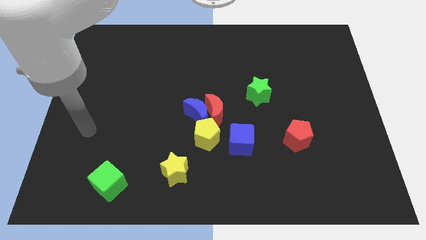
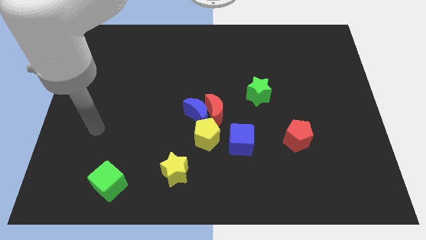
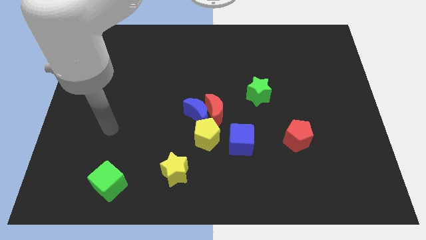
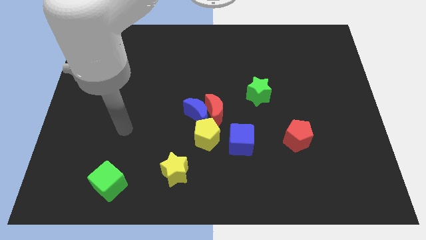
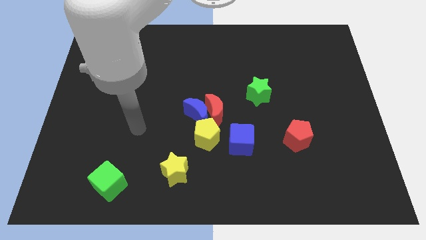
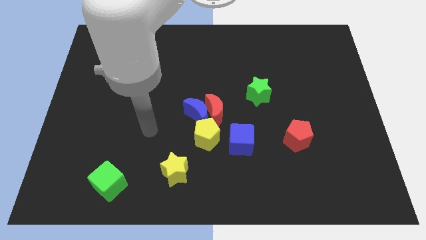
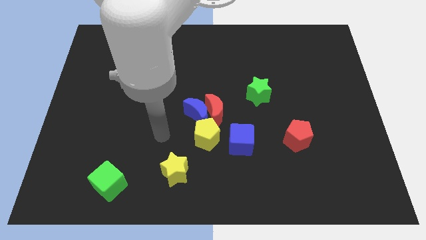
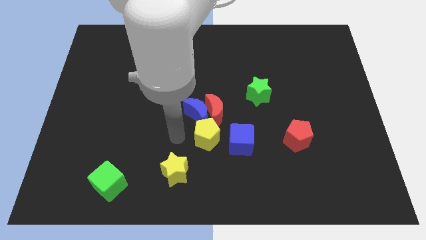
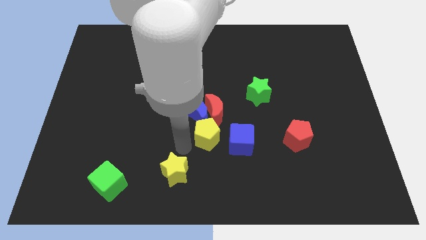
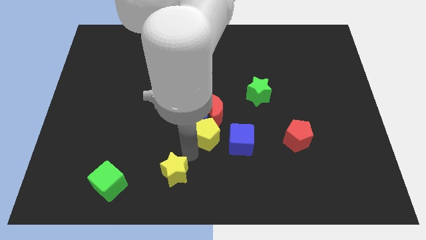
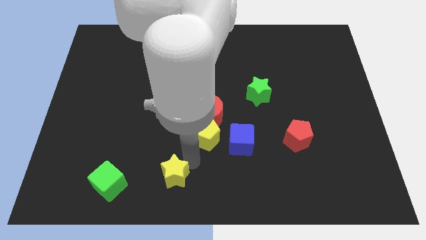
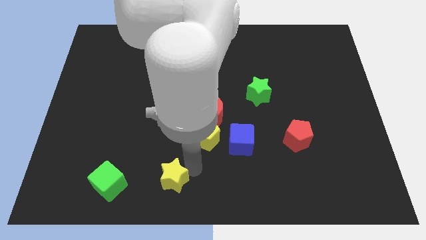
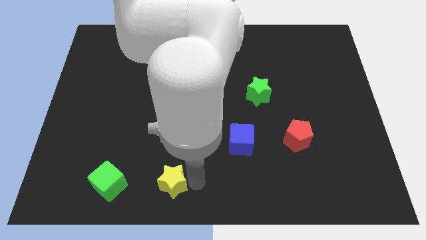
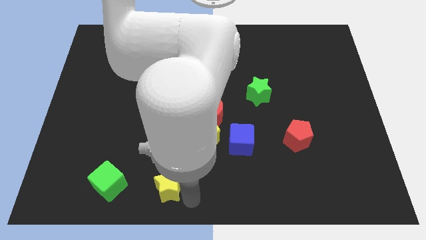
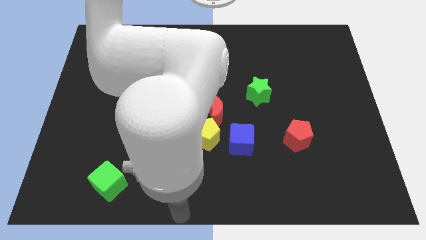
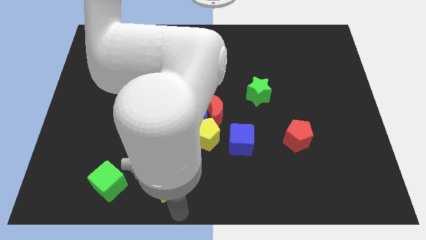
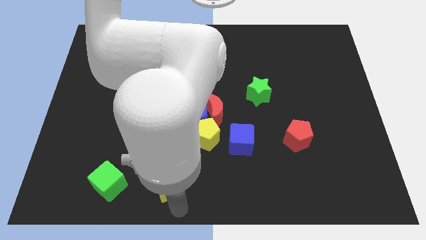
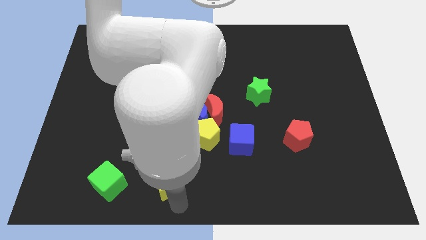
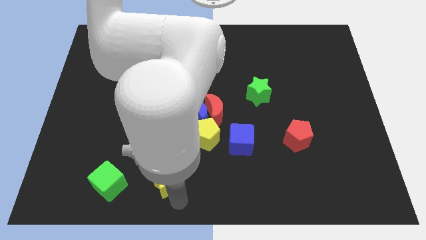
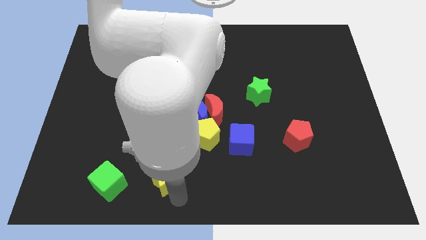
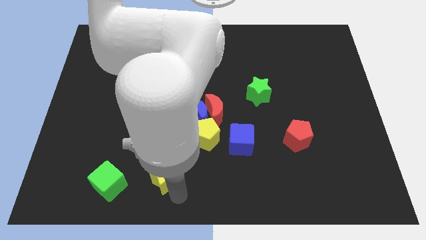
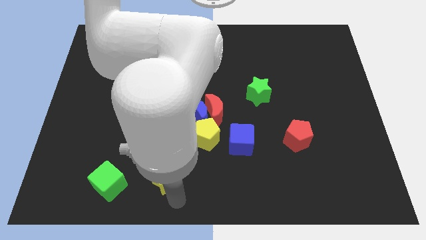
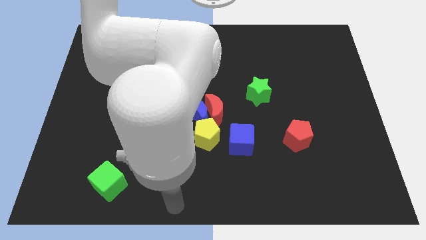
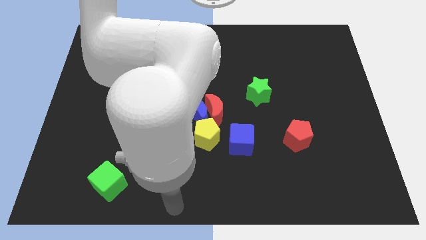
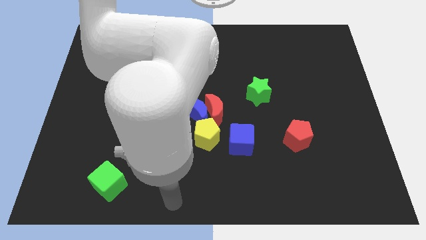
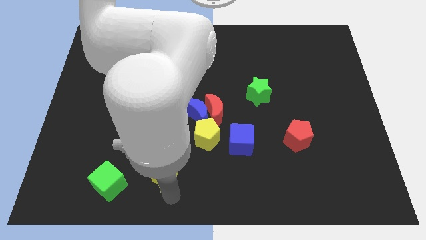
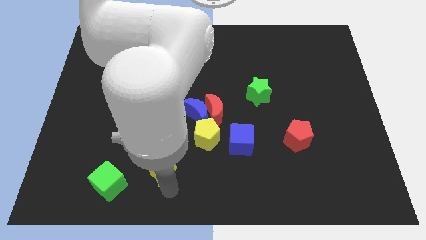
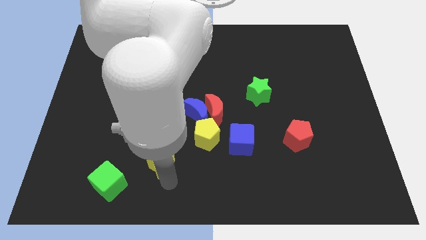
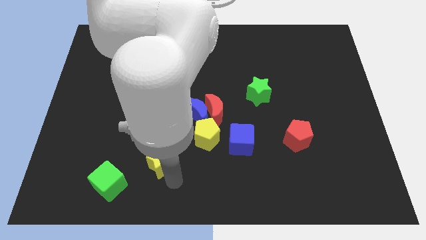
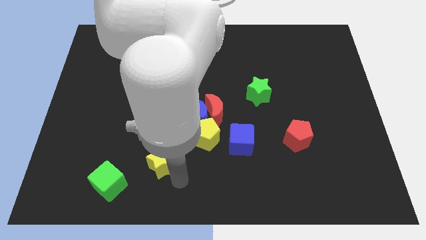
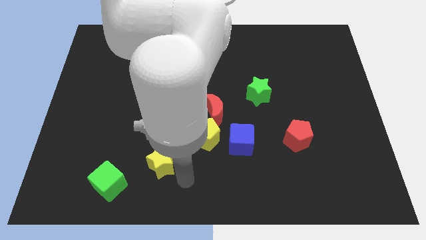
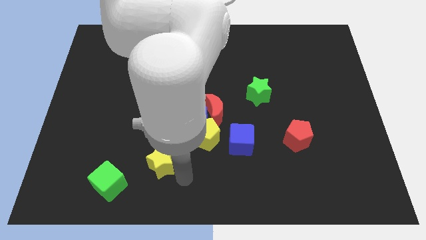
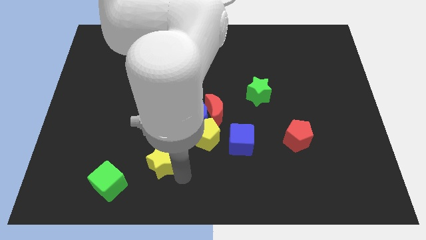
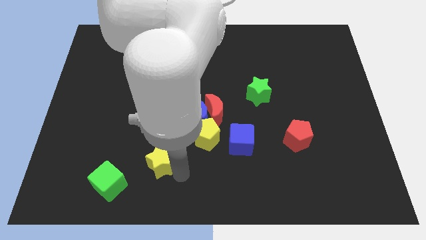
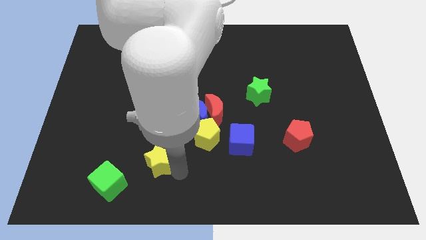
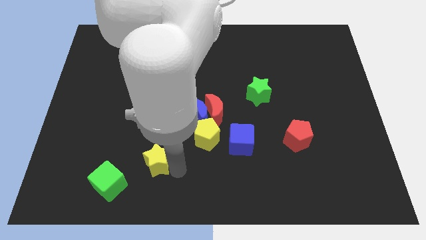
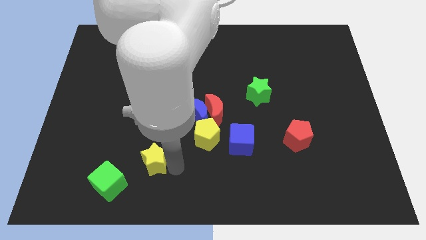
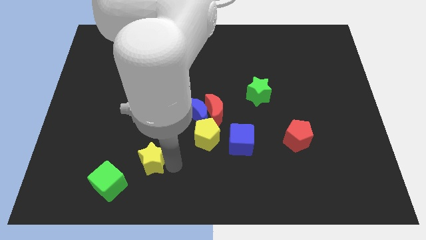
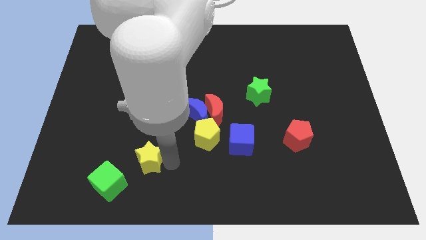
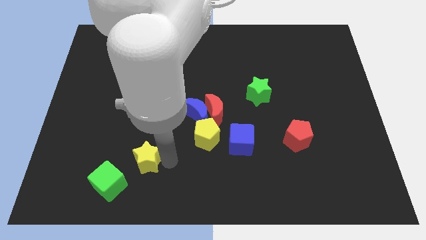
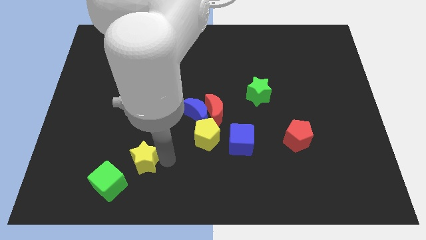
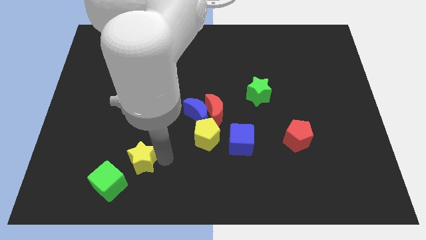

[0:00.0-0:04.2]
slide the yellow star somewhat up and to the left

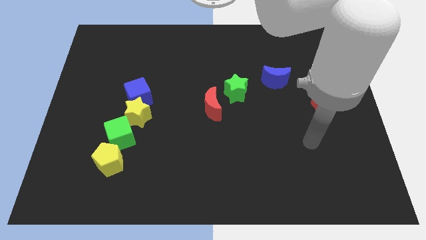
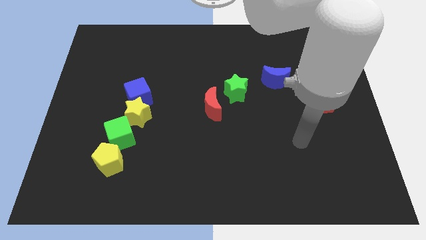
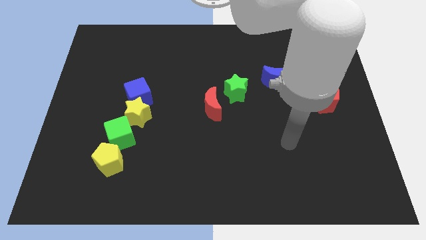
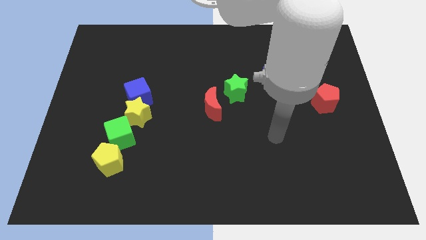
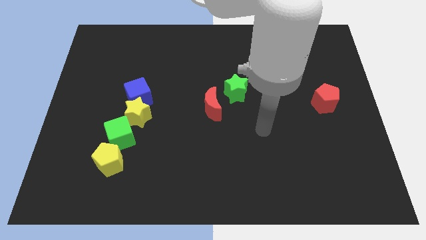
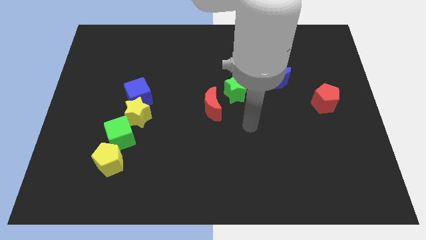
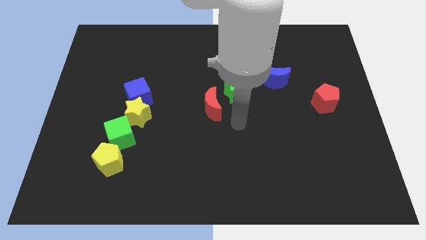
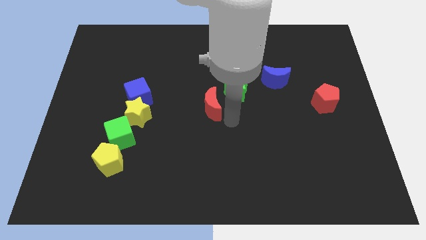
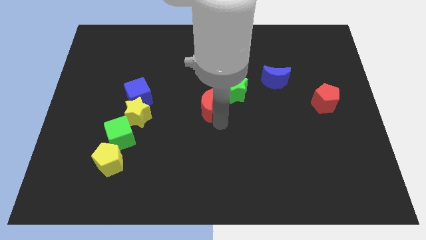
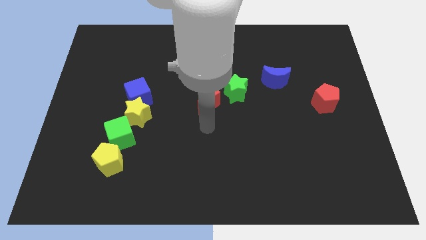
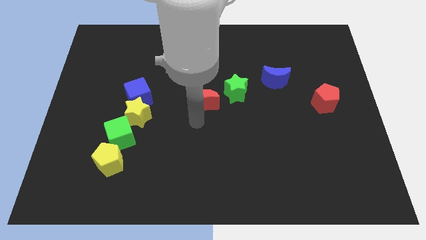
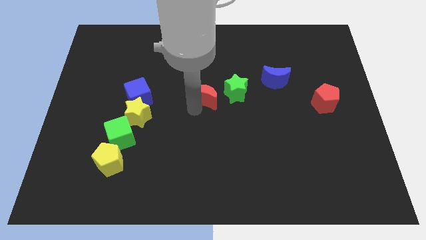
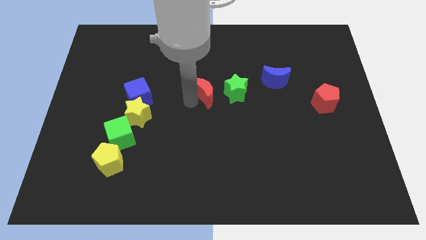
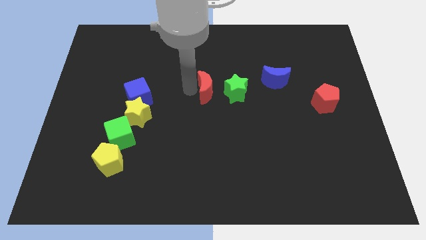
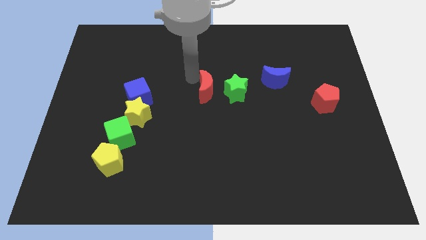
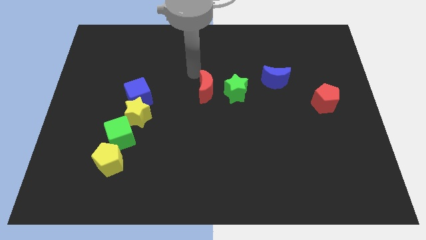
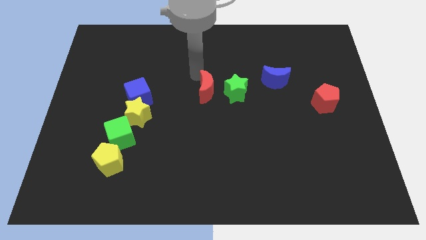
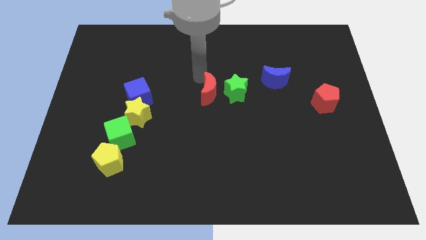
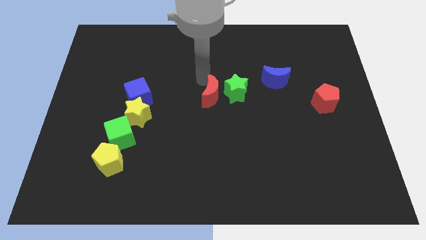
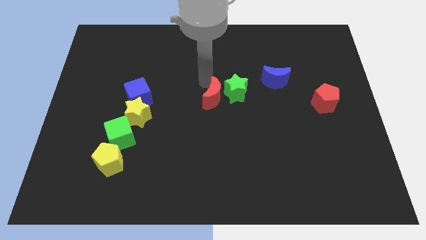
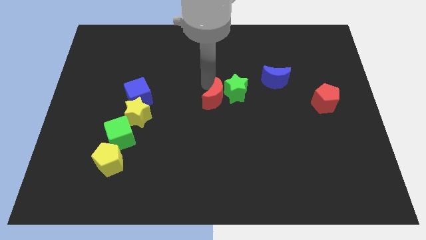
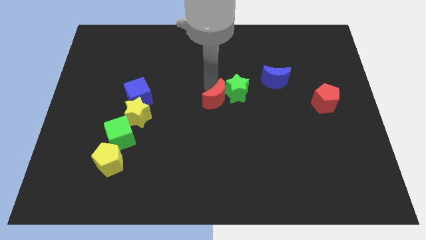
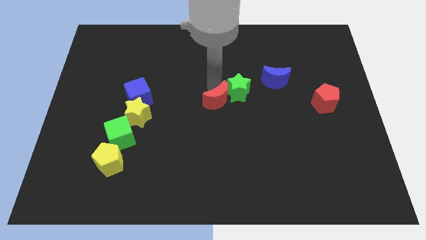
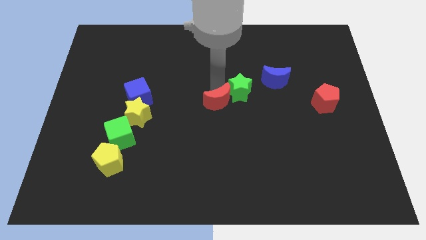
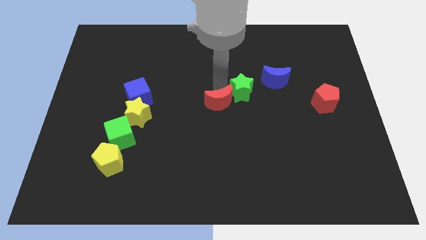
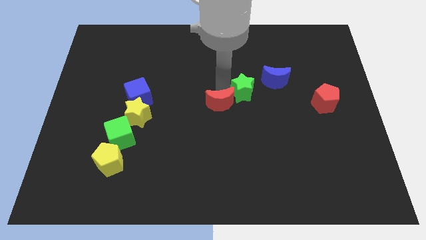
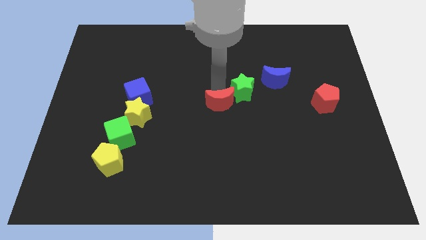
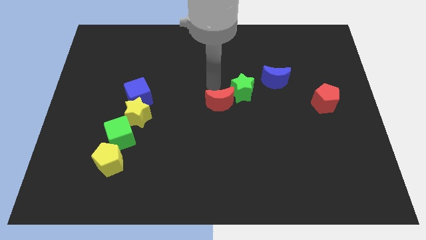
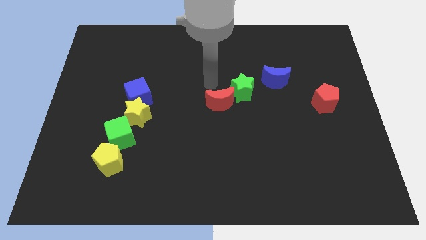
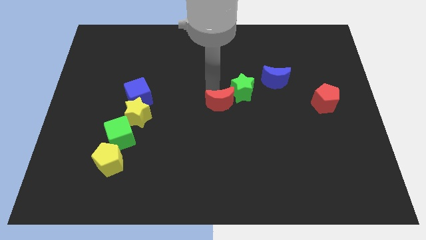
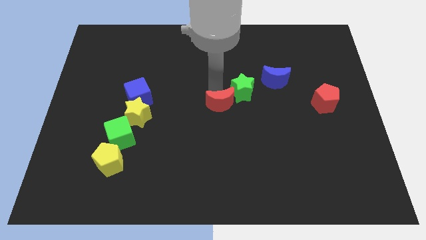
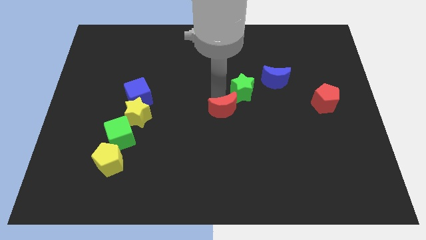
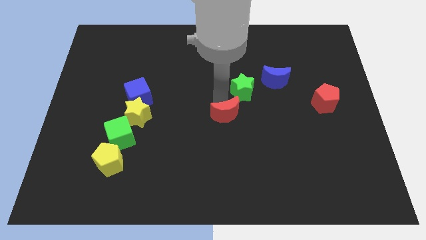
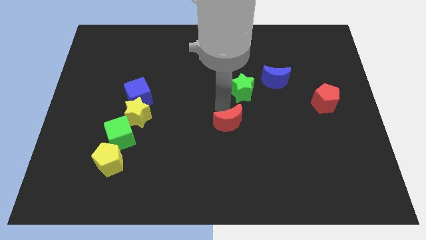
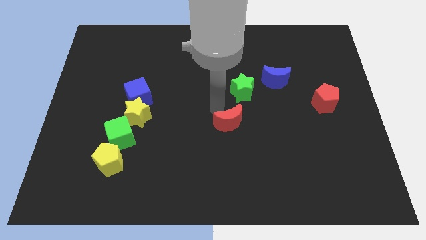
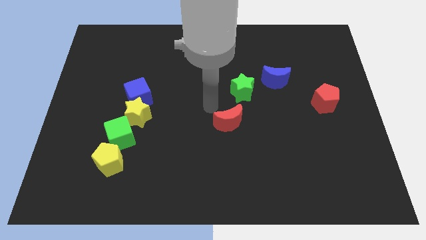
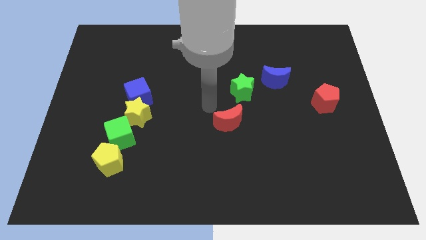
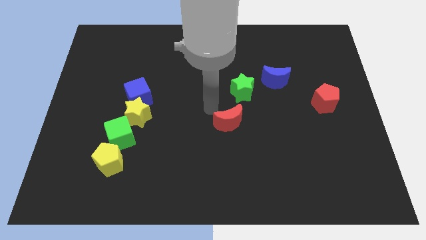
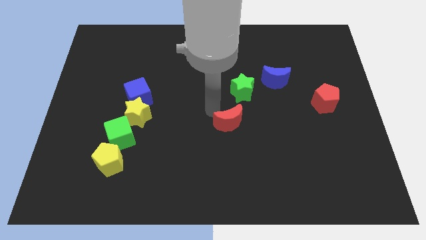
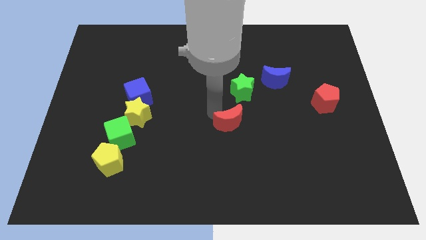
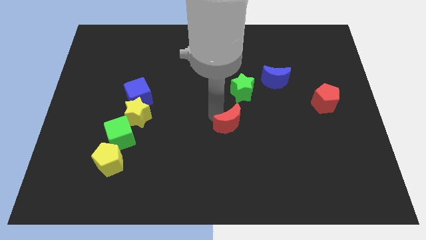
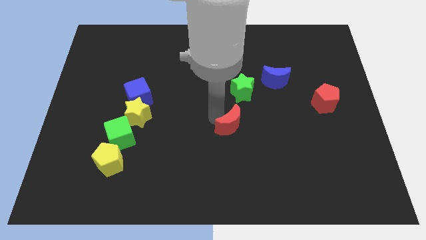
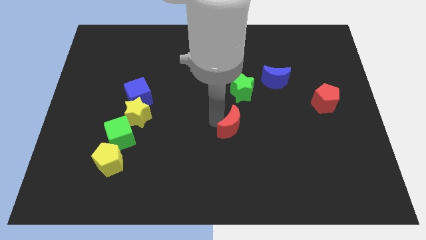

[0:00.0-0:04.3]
move the red moon a little downwards and then right

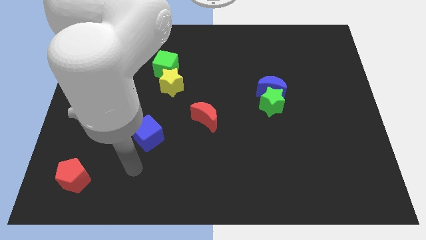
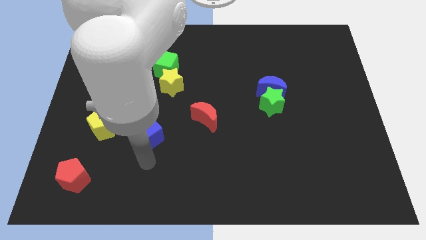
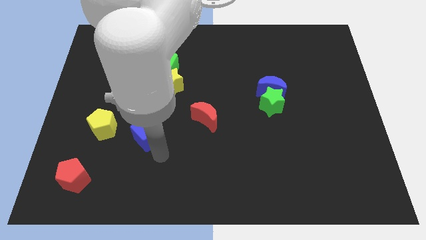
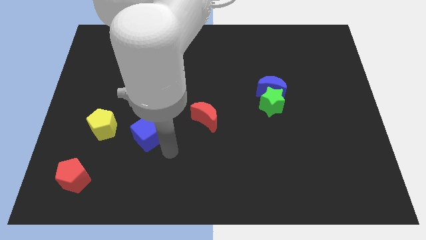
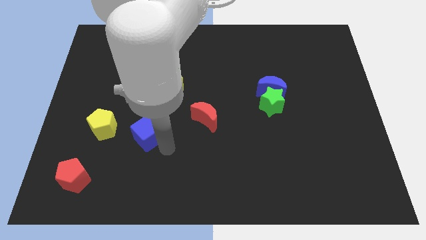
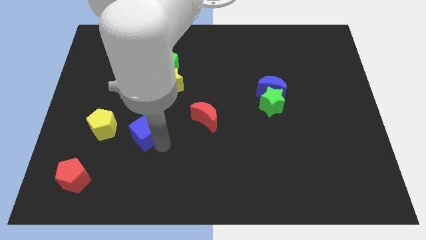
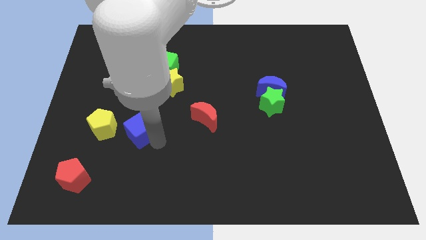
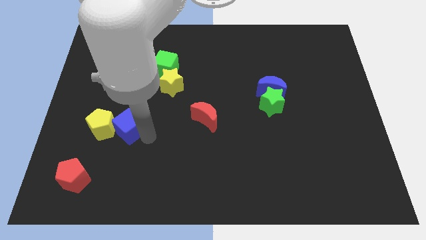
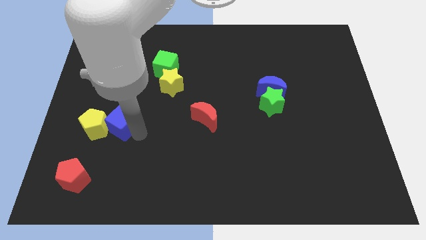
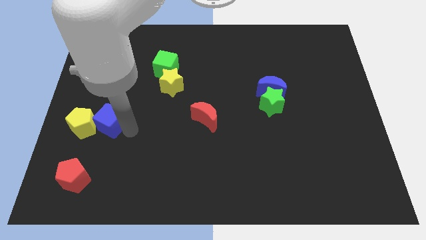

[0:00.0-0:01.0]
slide the blue cube diagonally up and left a little bit
